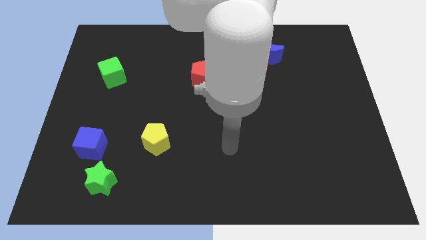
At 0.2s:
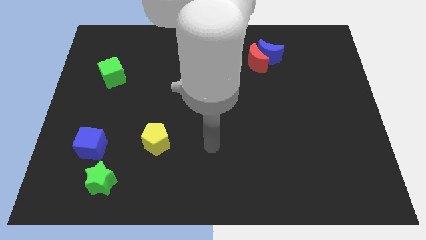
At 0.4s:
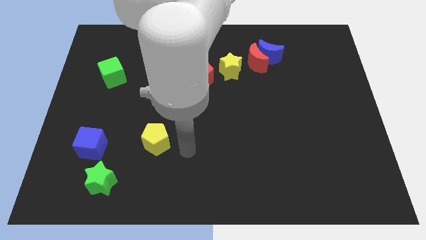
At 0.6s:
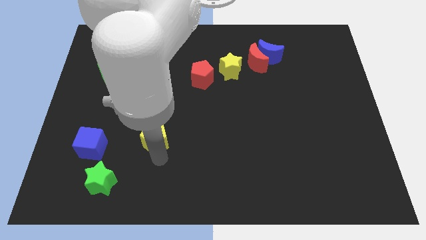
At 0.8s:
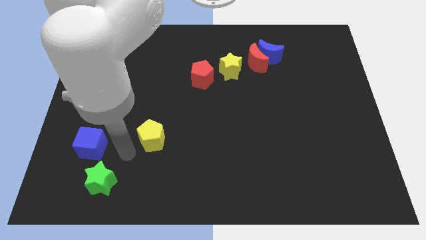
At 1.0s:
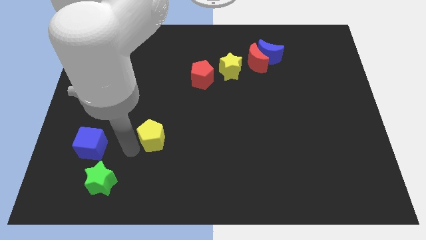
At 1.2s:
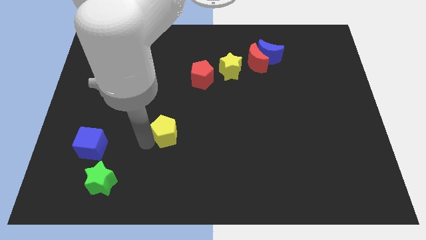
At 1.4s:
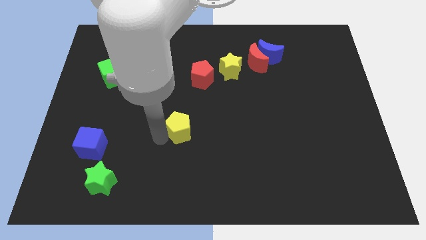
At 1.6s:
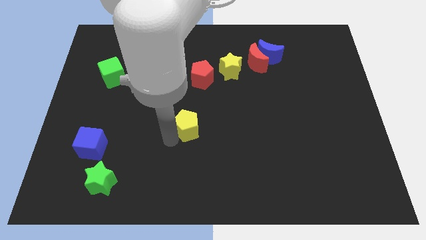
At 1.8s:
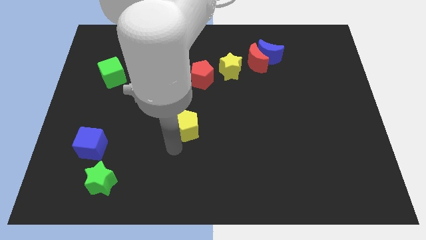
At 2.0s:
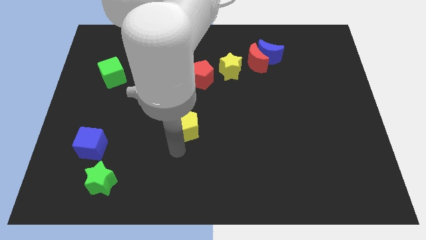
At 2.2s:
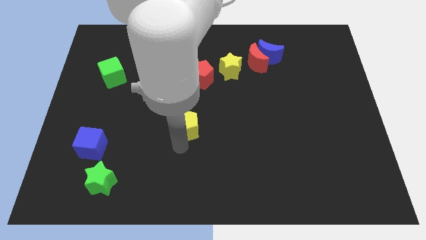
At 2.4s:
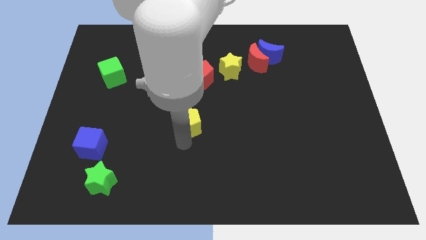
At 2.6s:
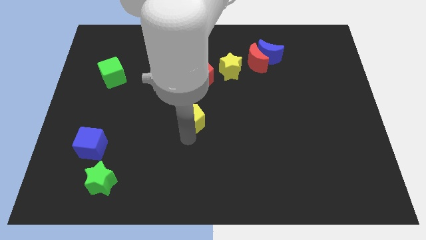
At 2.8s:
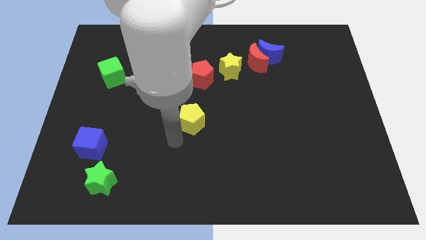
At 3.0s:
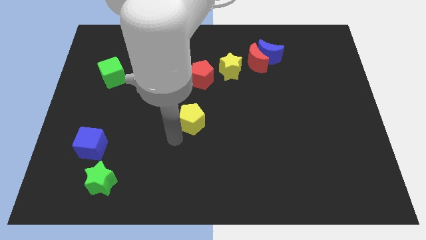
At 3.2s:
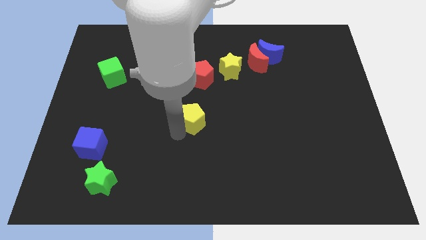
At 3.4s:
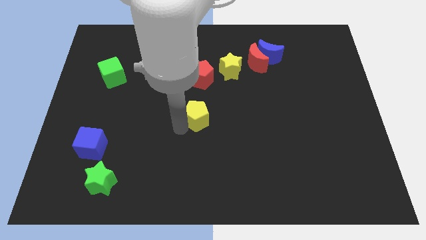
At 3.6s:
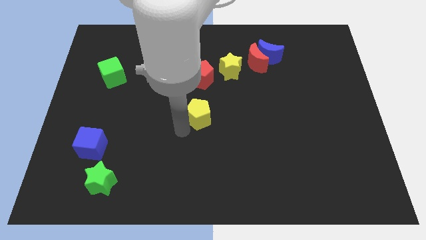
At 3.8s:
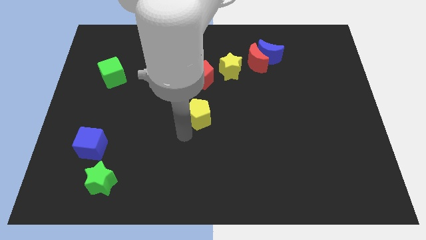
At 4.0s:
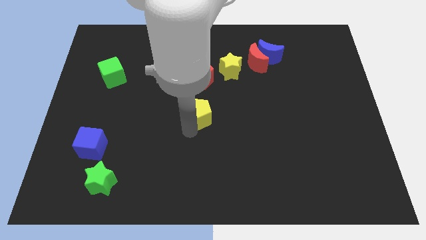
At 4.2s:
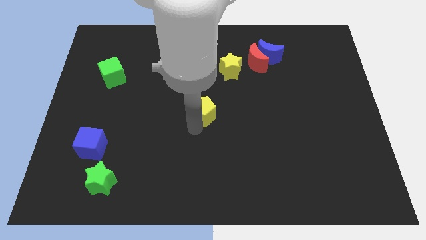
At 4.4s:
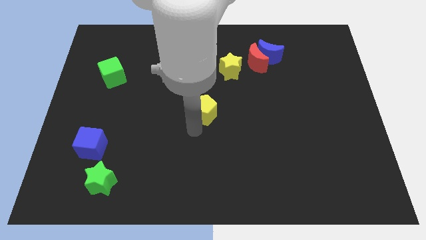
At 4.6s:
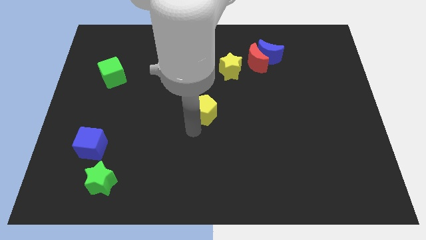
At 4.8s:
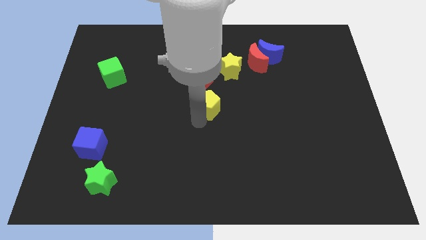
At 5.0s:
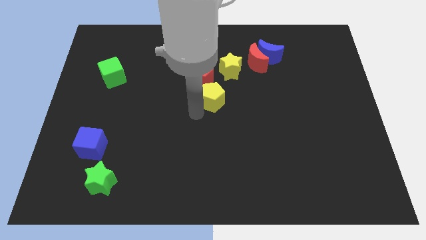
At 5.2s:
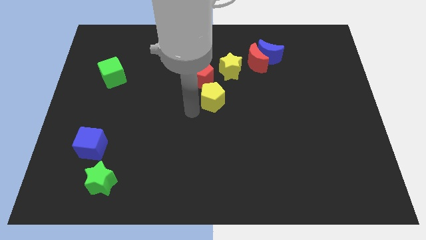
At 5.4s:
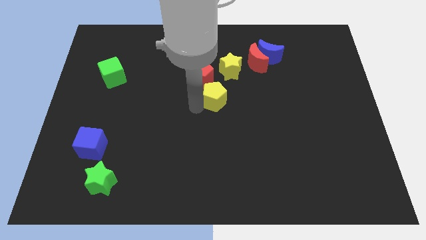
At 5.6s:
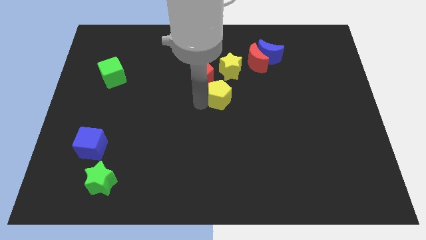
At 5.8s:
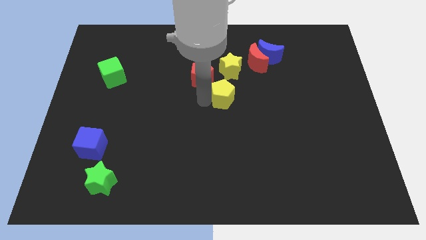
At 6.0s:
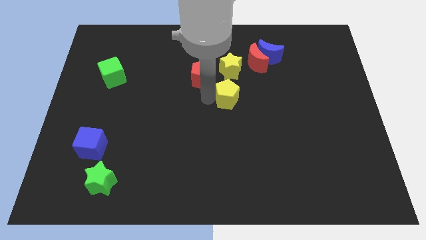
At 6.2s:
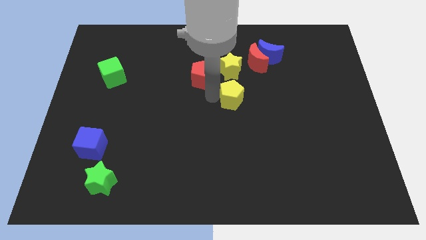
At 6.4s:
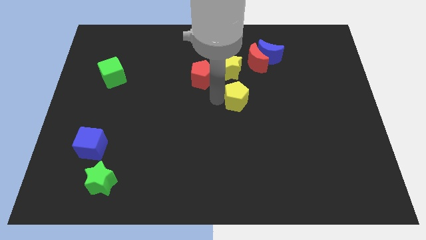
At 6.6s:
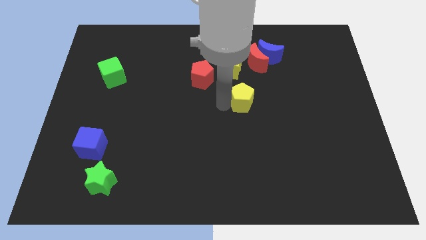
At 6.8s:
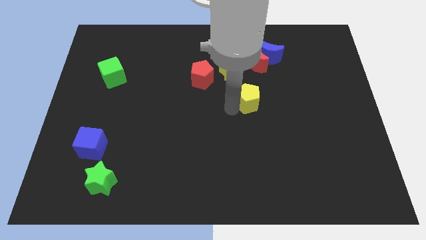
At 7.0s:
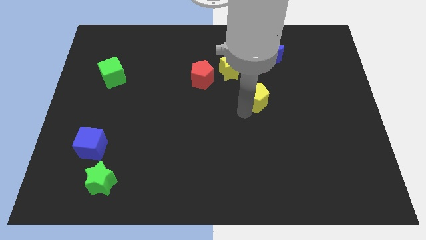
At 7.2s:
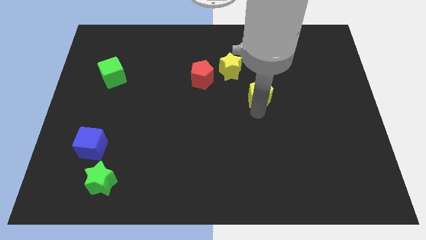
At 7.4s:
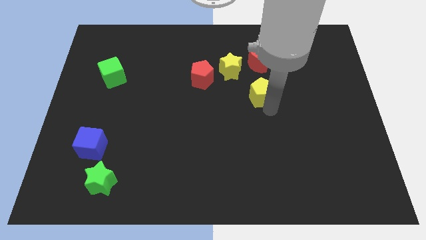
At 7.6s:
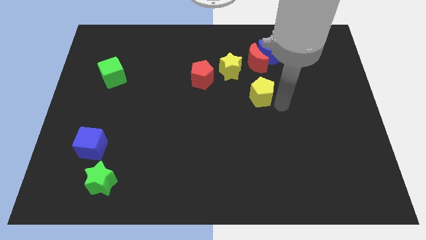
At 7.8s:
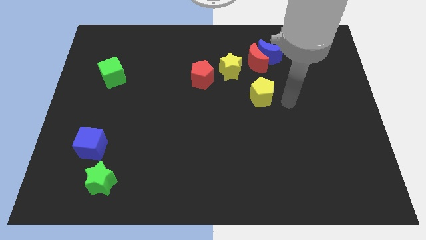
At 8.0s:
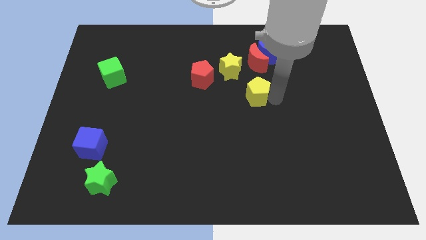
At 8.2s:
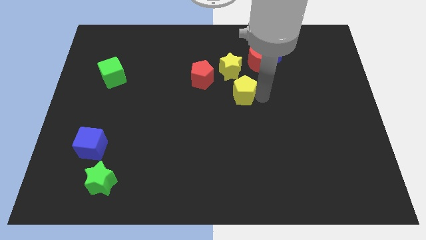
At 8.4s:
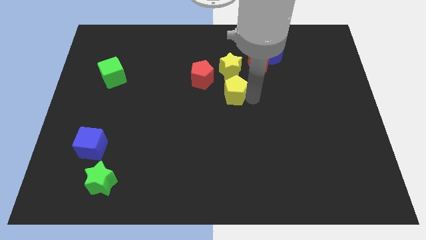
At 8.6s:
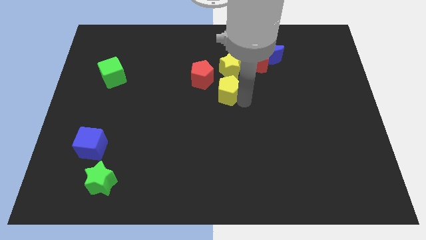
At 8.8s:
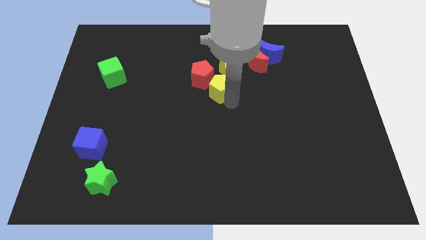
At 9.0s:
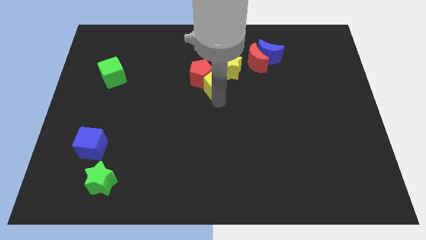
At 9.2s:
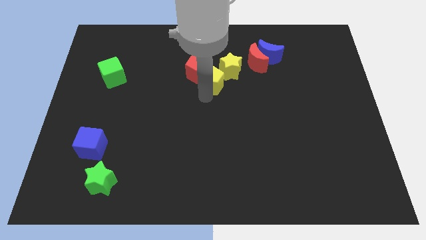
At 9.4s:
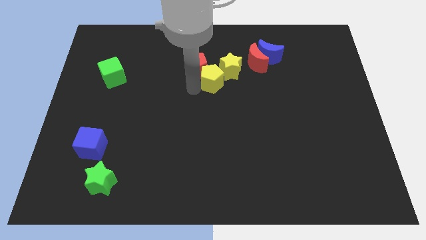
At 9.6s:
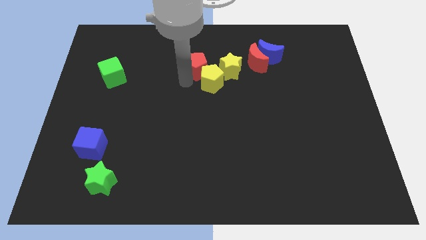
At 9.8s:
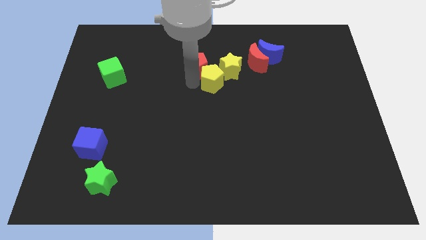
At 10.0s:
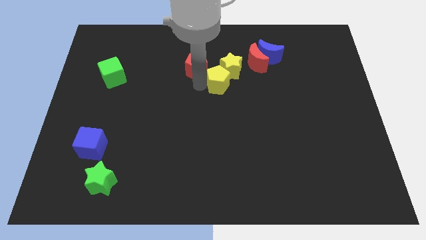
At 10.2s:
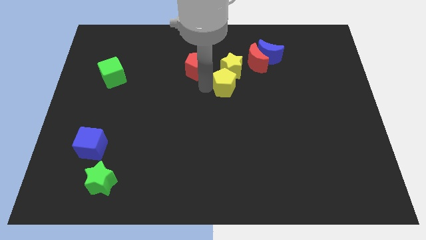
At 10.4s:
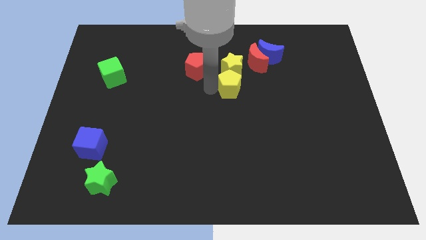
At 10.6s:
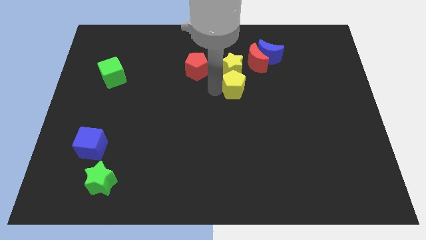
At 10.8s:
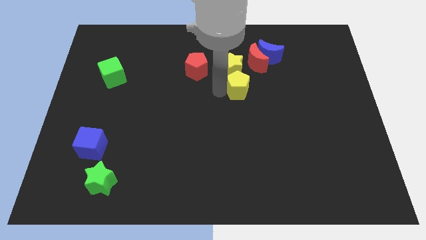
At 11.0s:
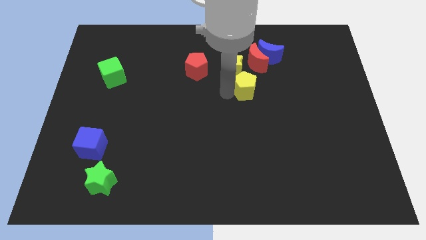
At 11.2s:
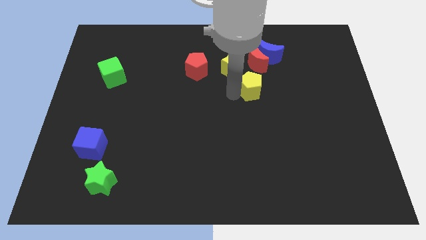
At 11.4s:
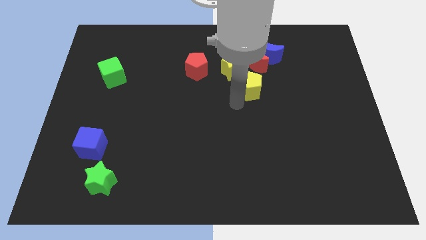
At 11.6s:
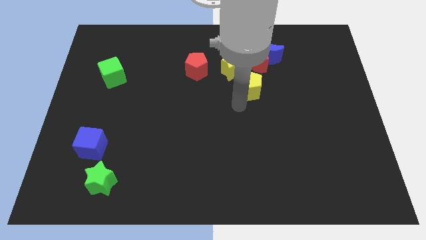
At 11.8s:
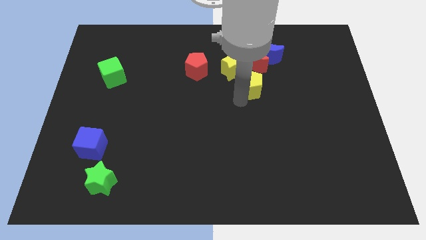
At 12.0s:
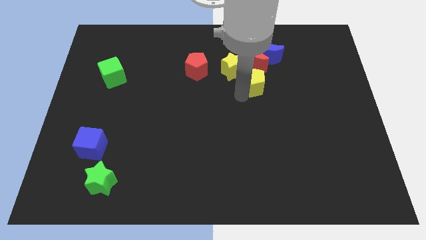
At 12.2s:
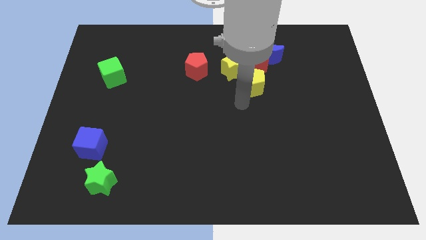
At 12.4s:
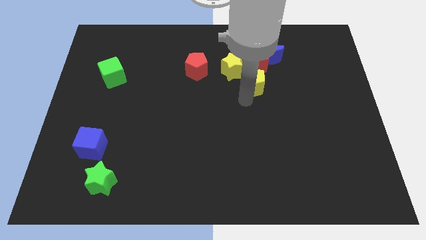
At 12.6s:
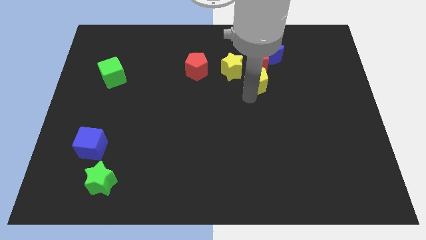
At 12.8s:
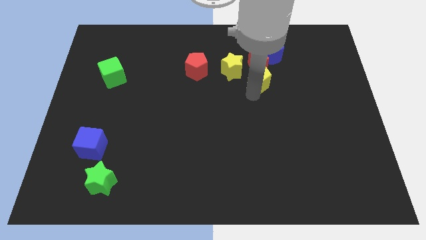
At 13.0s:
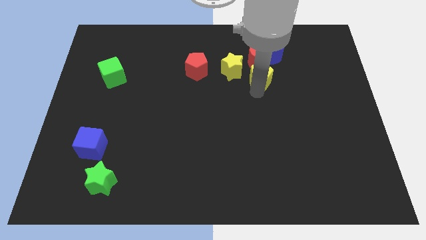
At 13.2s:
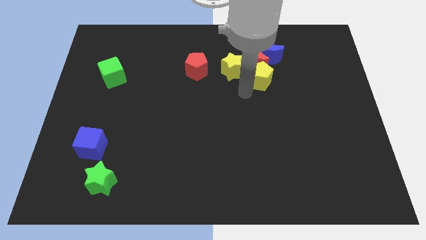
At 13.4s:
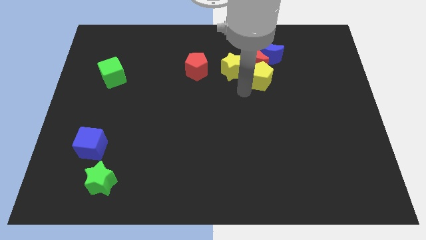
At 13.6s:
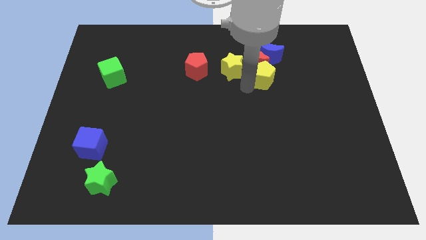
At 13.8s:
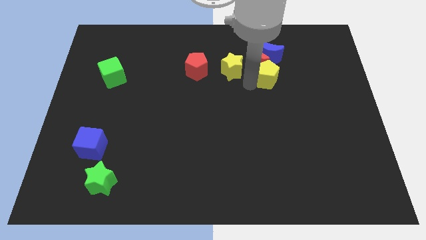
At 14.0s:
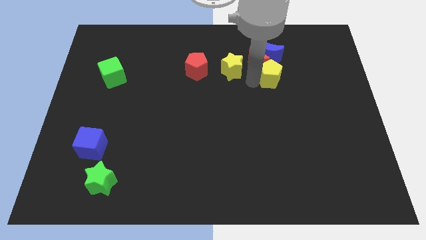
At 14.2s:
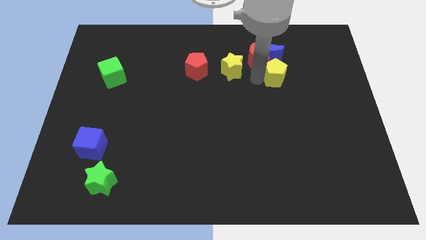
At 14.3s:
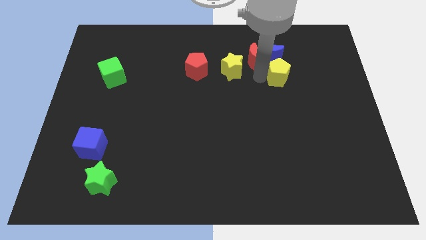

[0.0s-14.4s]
move the yellow pentagon right of the red moon

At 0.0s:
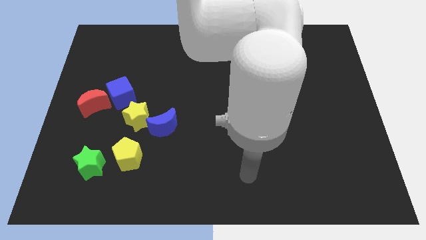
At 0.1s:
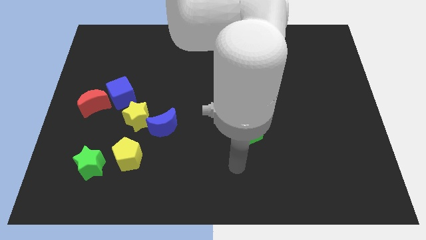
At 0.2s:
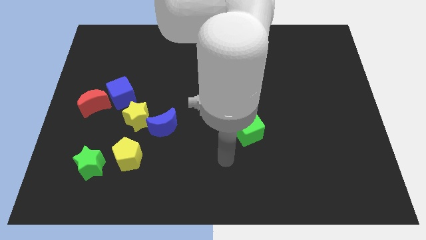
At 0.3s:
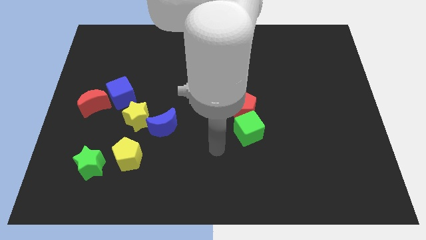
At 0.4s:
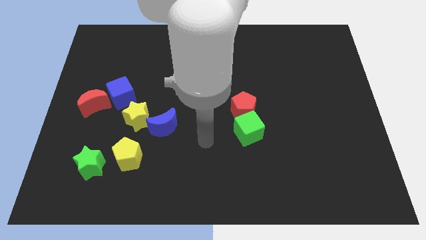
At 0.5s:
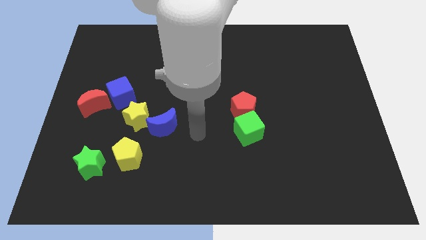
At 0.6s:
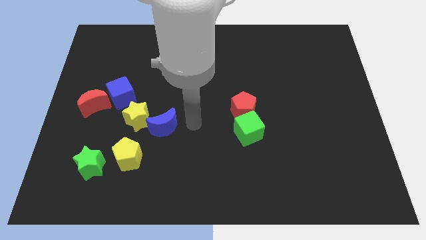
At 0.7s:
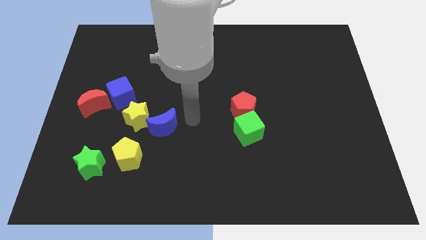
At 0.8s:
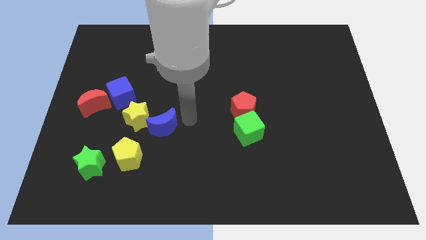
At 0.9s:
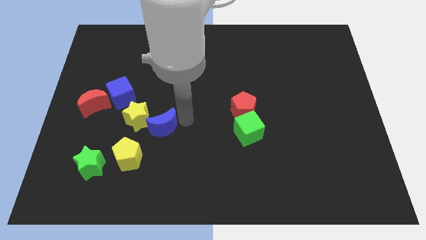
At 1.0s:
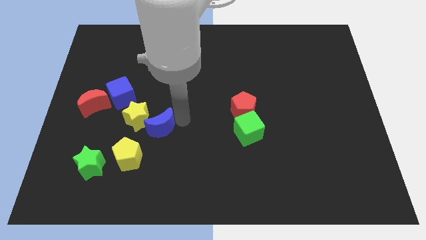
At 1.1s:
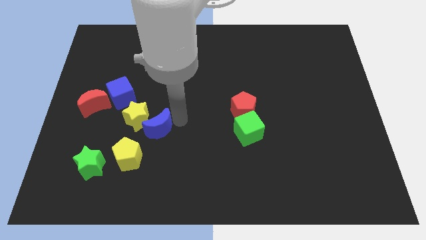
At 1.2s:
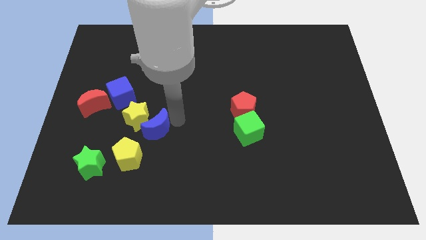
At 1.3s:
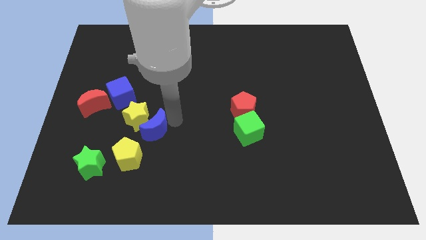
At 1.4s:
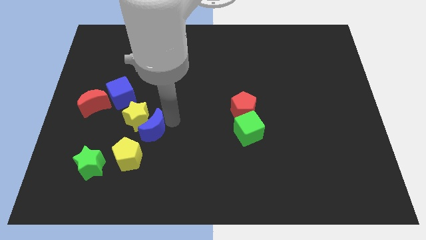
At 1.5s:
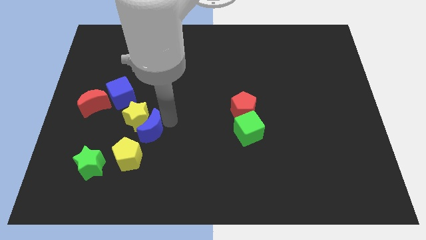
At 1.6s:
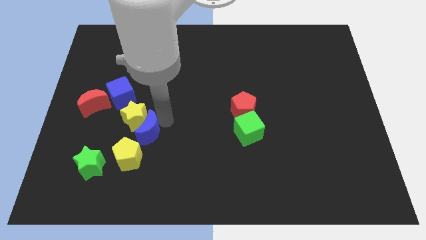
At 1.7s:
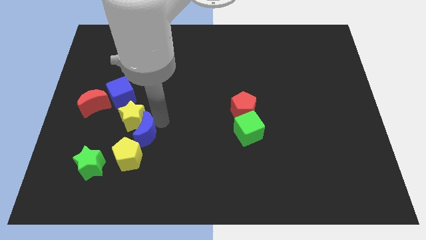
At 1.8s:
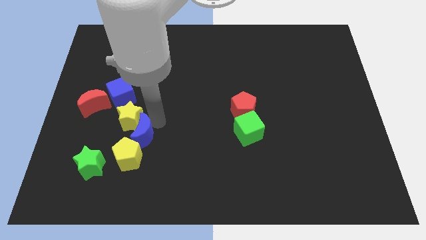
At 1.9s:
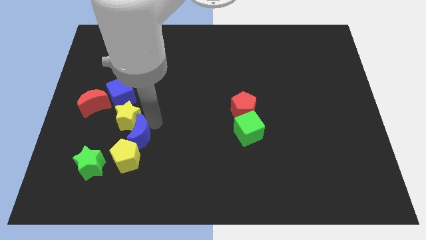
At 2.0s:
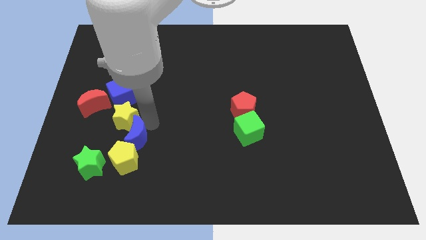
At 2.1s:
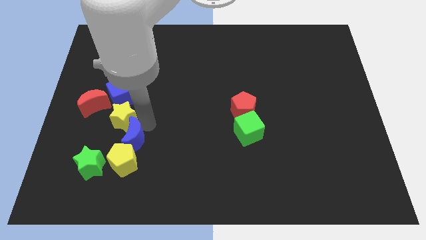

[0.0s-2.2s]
push the blue moon below the blue cube
